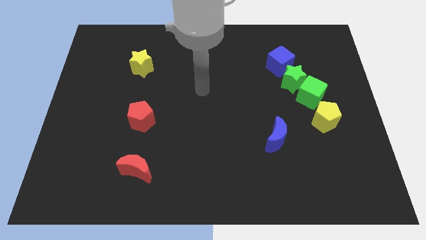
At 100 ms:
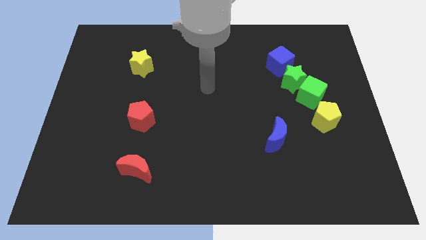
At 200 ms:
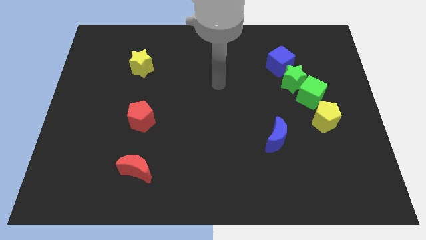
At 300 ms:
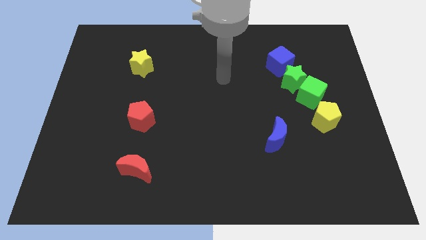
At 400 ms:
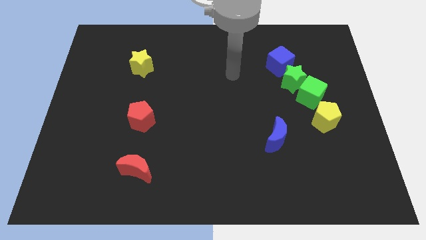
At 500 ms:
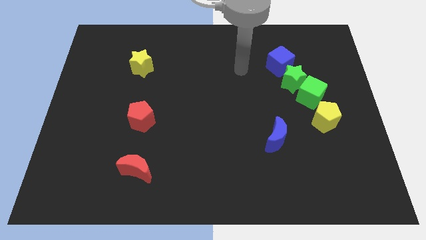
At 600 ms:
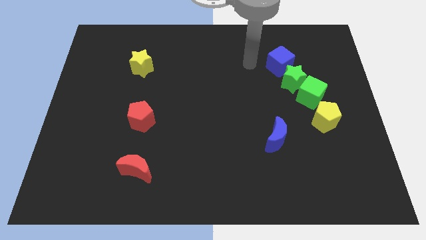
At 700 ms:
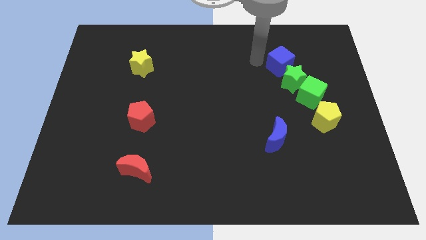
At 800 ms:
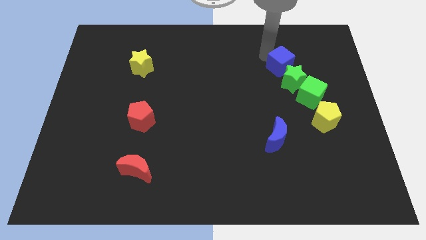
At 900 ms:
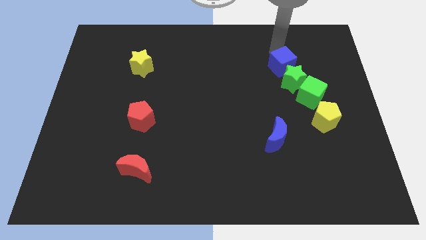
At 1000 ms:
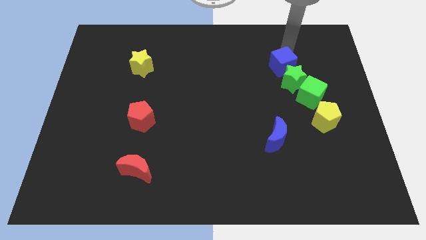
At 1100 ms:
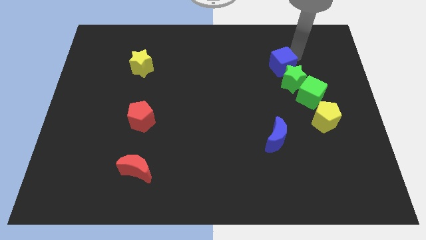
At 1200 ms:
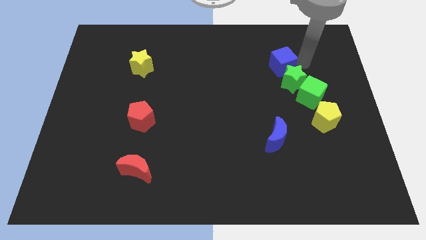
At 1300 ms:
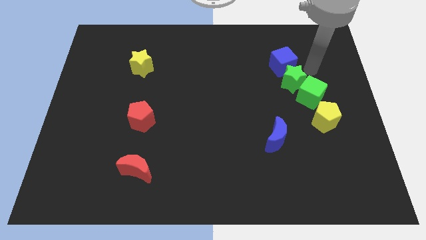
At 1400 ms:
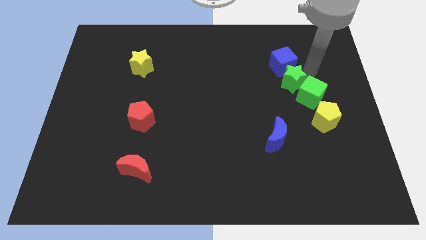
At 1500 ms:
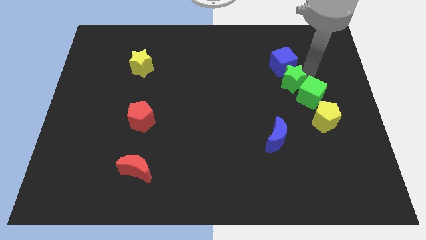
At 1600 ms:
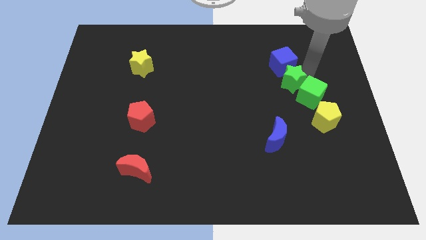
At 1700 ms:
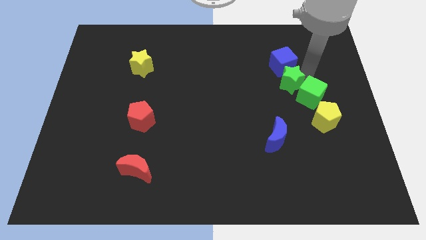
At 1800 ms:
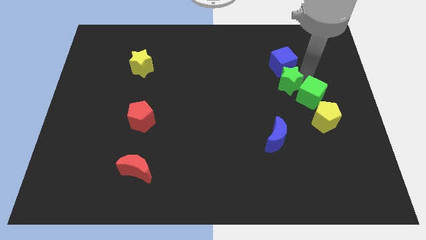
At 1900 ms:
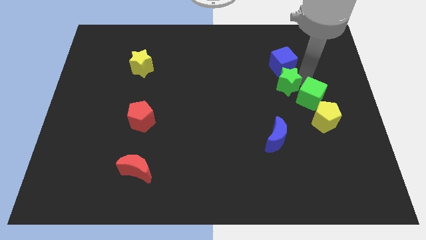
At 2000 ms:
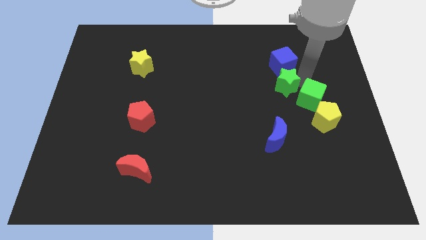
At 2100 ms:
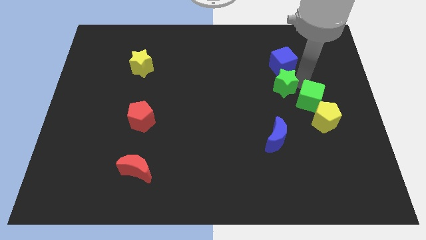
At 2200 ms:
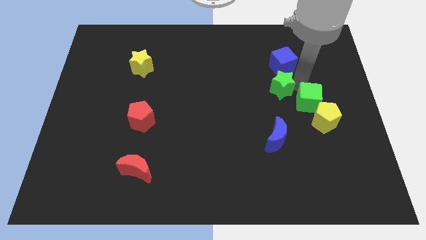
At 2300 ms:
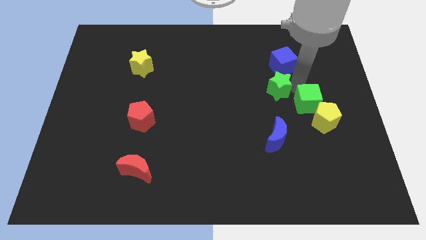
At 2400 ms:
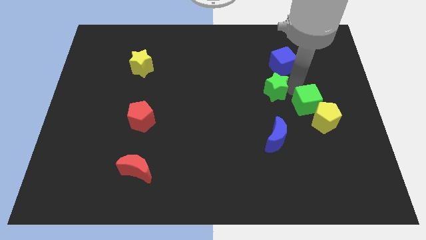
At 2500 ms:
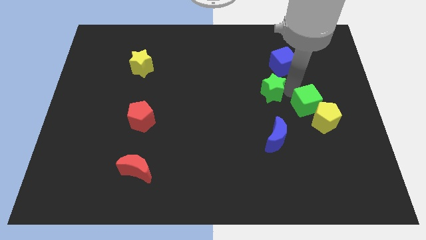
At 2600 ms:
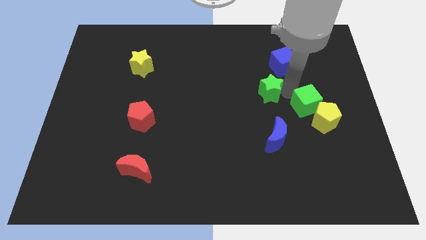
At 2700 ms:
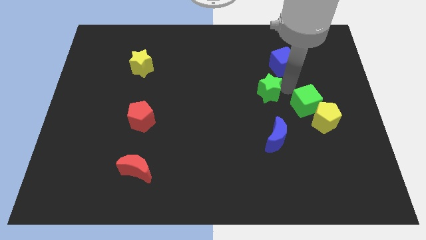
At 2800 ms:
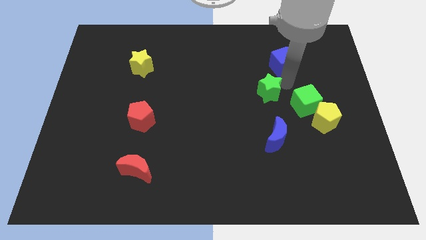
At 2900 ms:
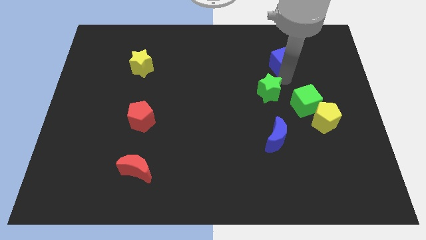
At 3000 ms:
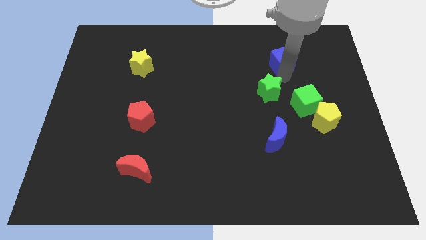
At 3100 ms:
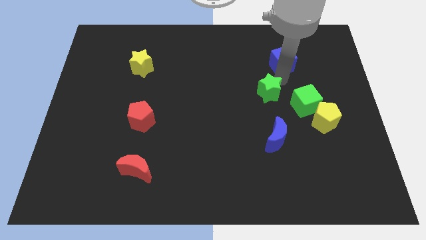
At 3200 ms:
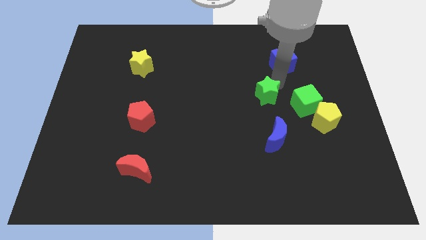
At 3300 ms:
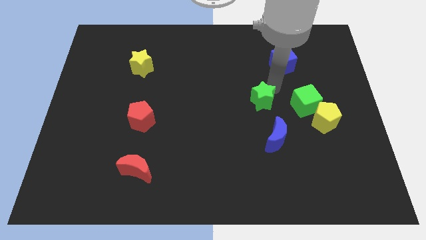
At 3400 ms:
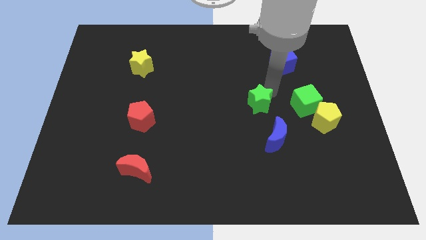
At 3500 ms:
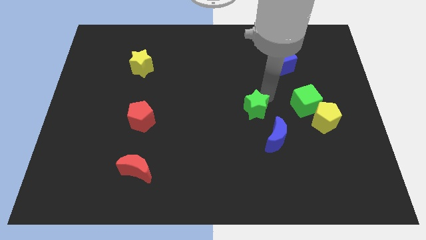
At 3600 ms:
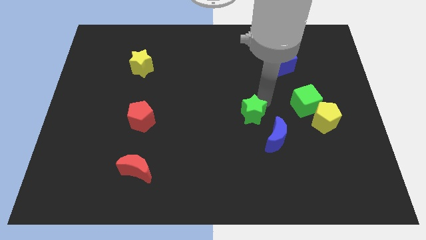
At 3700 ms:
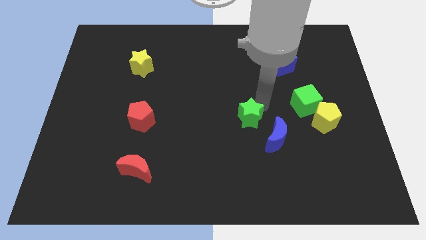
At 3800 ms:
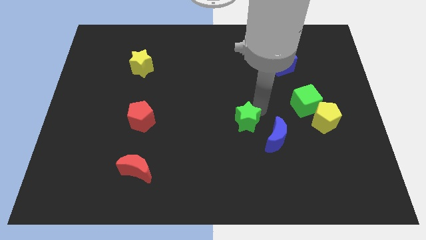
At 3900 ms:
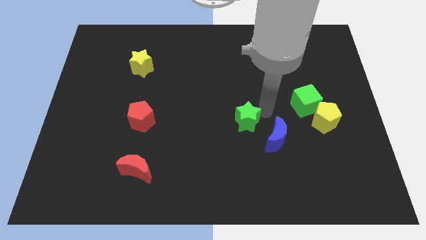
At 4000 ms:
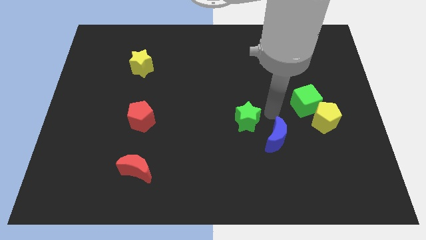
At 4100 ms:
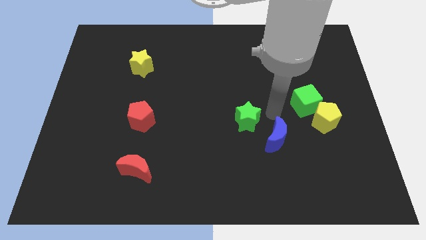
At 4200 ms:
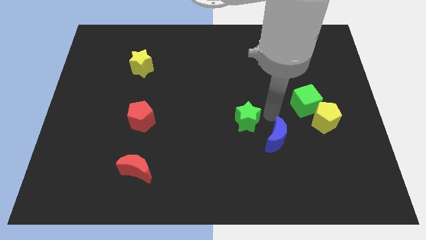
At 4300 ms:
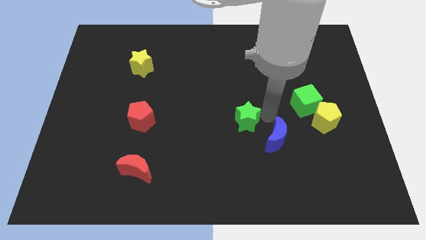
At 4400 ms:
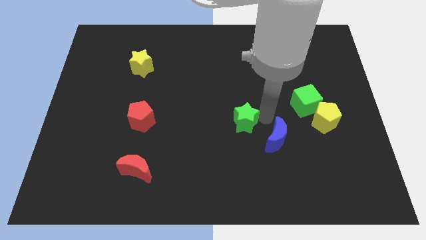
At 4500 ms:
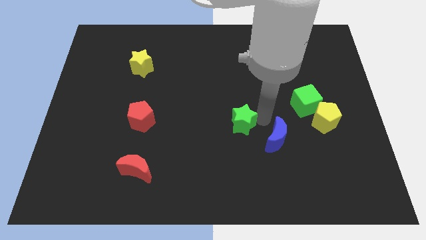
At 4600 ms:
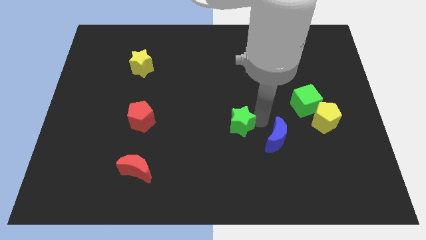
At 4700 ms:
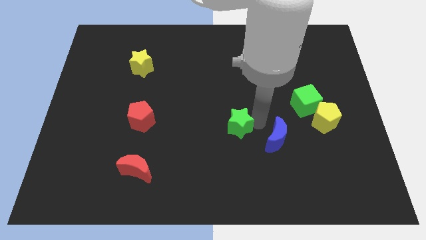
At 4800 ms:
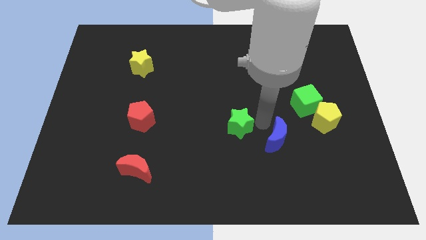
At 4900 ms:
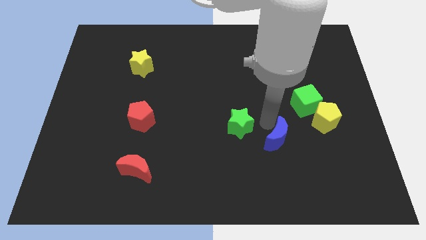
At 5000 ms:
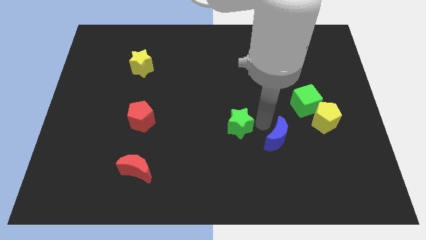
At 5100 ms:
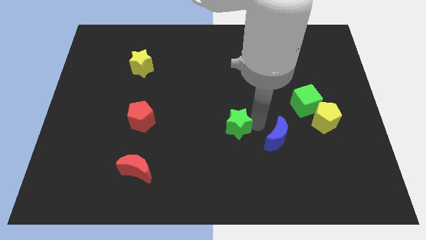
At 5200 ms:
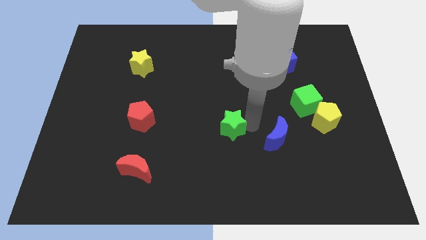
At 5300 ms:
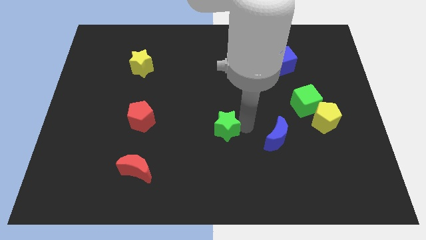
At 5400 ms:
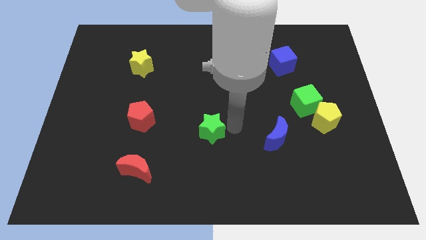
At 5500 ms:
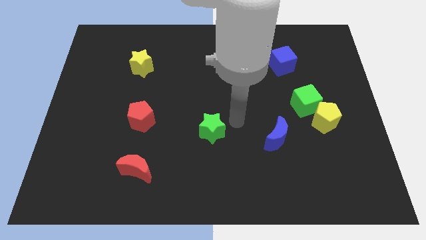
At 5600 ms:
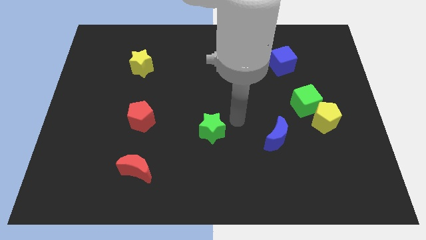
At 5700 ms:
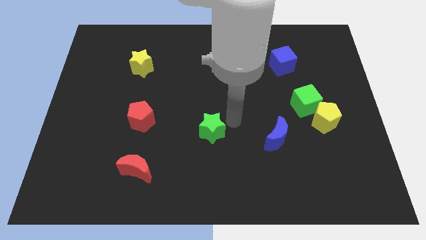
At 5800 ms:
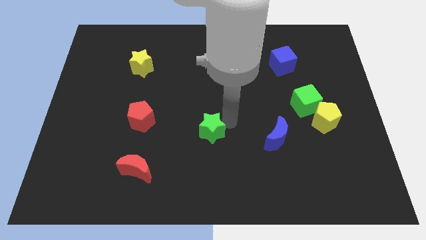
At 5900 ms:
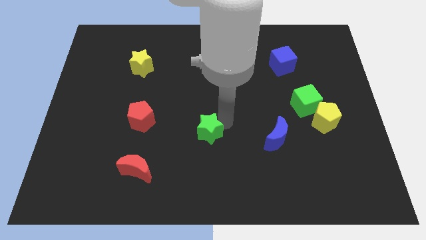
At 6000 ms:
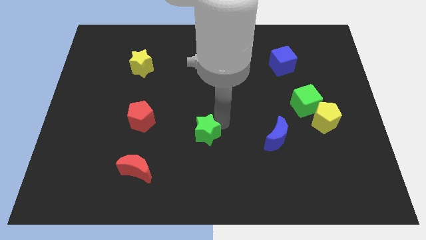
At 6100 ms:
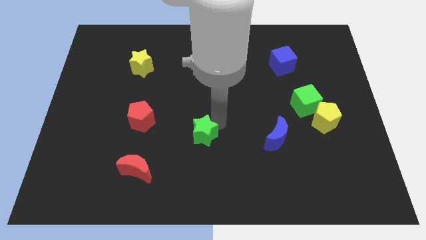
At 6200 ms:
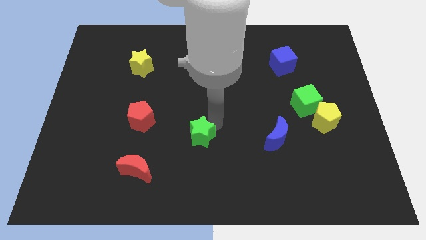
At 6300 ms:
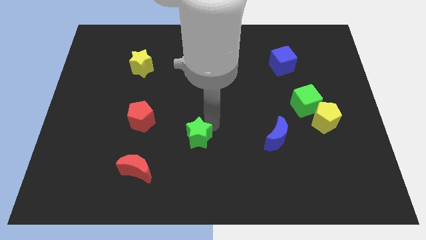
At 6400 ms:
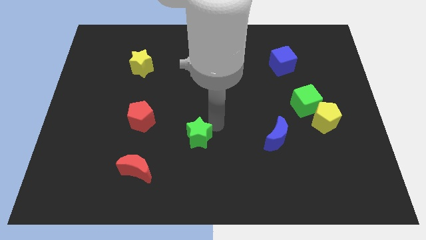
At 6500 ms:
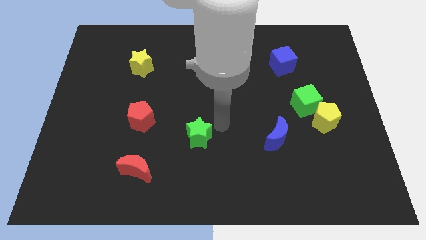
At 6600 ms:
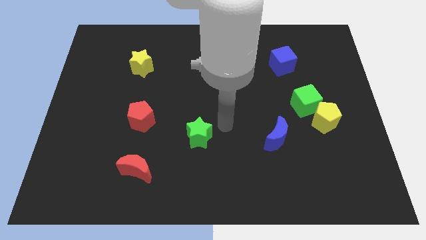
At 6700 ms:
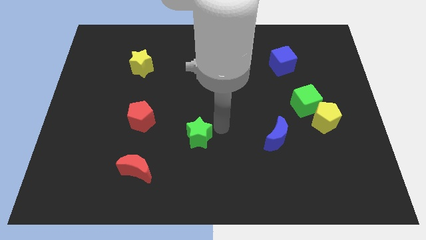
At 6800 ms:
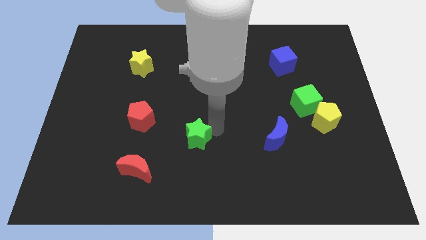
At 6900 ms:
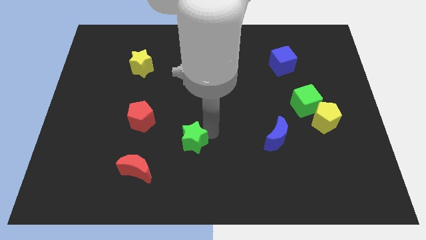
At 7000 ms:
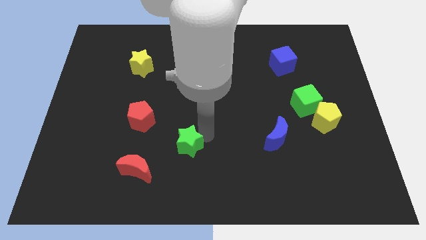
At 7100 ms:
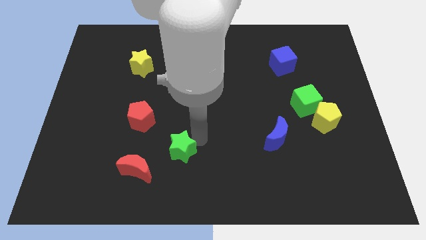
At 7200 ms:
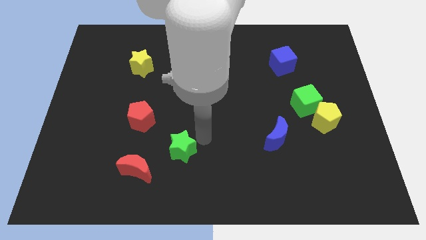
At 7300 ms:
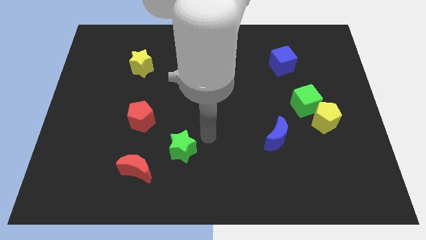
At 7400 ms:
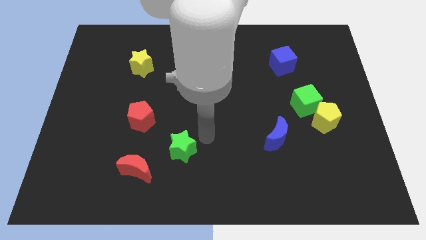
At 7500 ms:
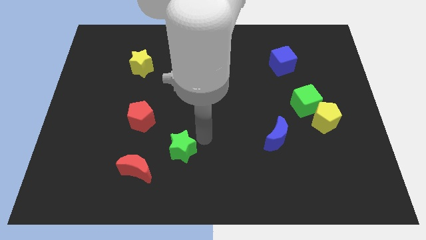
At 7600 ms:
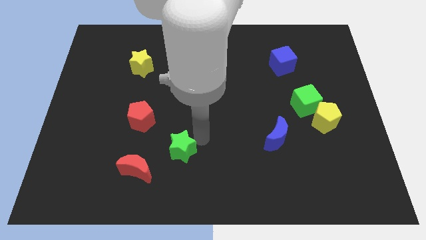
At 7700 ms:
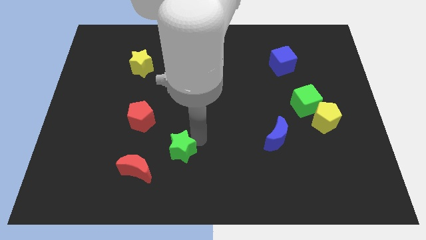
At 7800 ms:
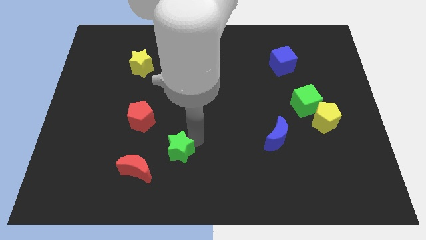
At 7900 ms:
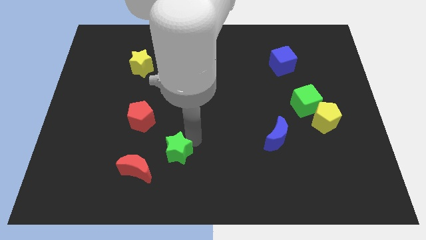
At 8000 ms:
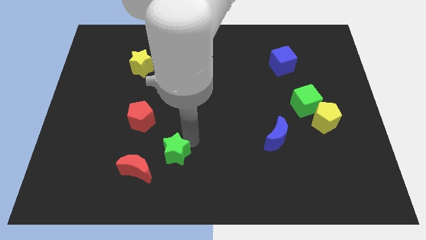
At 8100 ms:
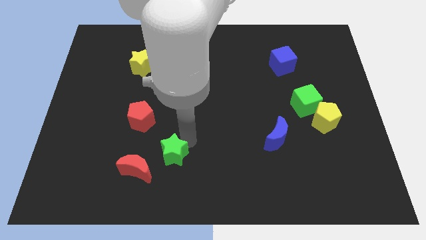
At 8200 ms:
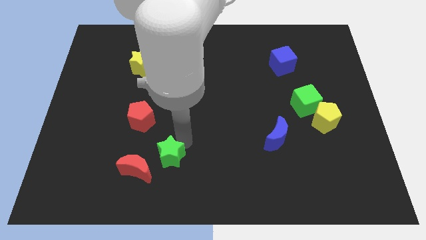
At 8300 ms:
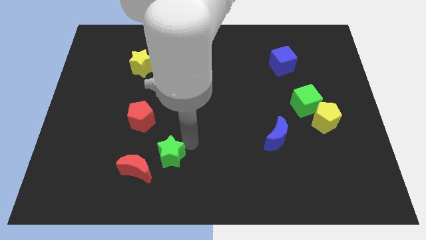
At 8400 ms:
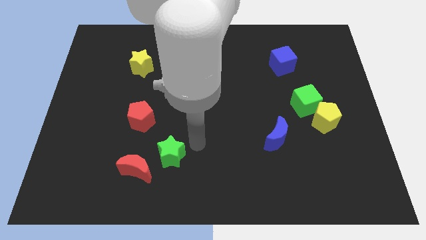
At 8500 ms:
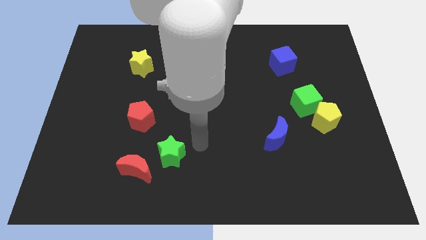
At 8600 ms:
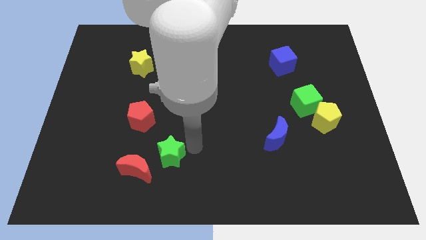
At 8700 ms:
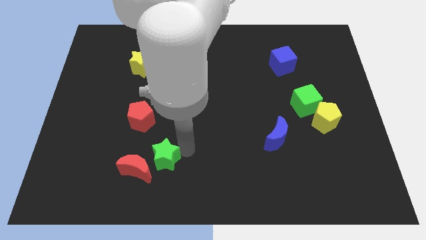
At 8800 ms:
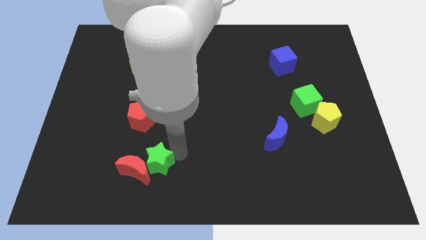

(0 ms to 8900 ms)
move the green star to the red moon
